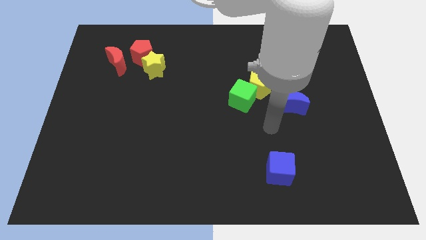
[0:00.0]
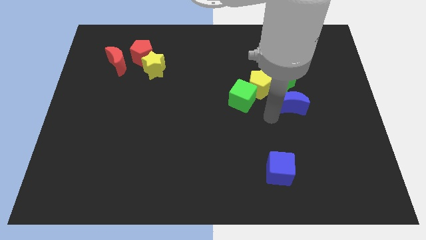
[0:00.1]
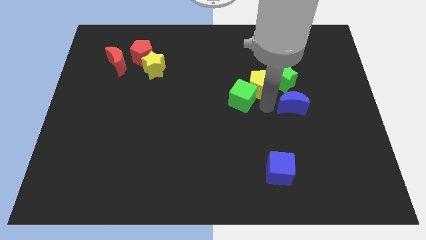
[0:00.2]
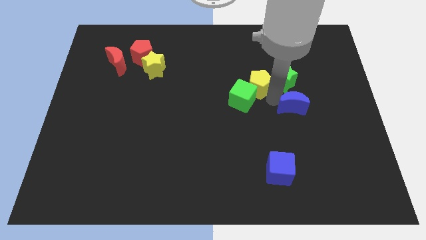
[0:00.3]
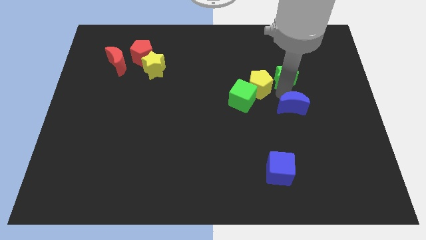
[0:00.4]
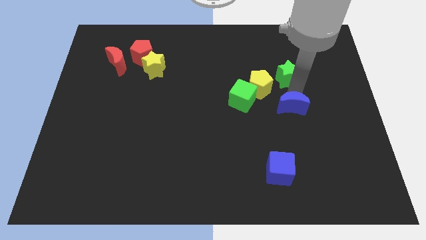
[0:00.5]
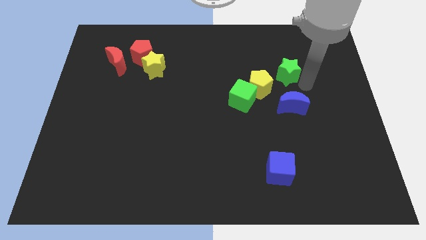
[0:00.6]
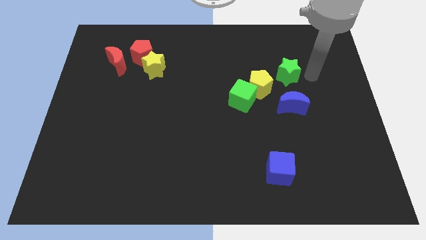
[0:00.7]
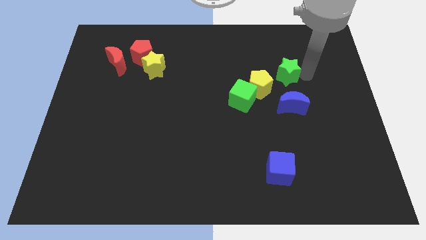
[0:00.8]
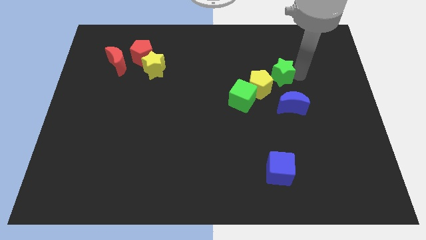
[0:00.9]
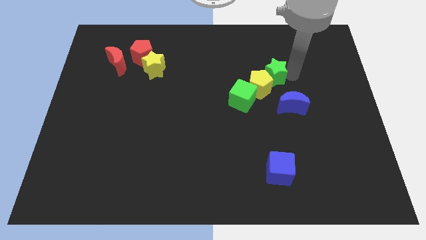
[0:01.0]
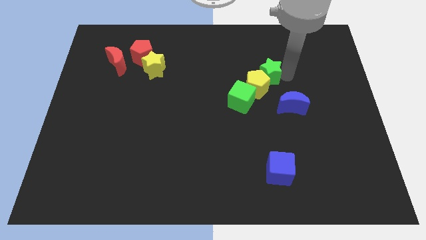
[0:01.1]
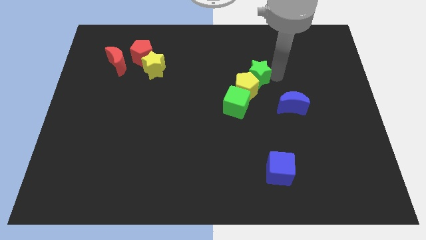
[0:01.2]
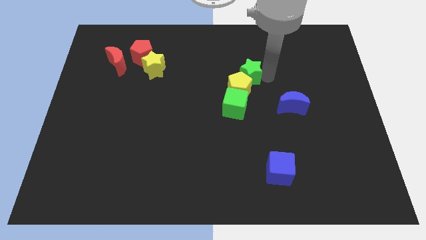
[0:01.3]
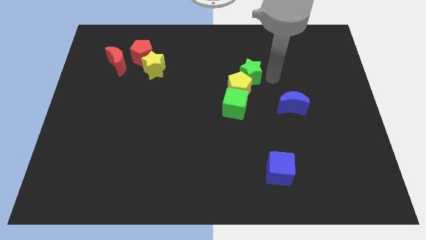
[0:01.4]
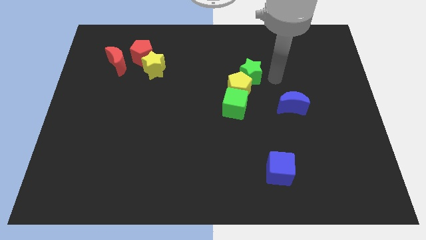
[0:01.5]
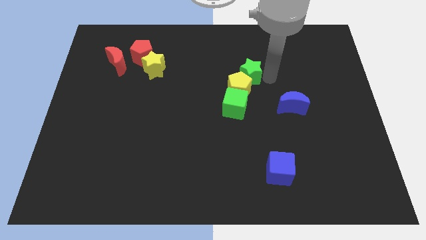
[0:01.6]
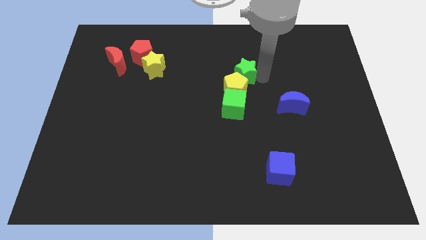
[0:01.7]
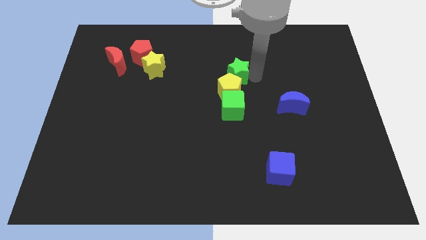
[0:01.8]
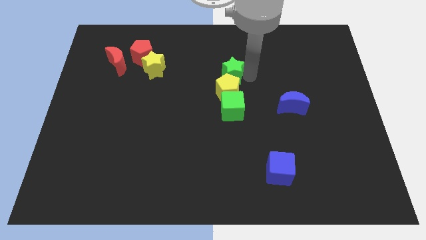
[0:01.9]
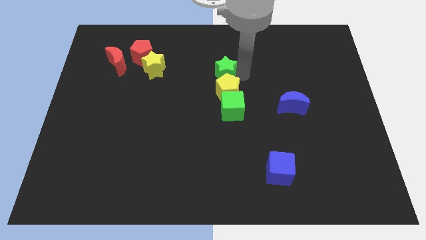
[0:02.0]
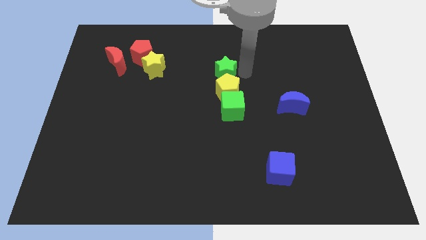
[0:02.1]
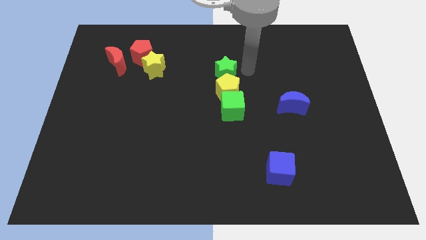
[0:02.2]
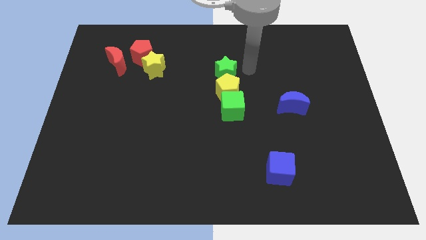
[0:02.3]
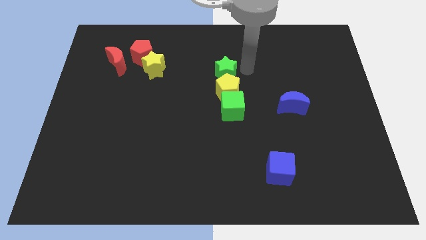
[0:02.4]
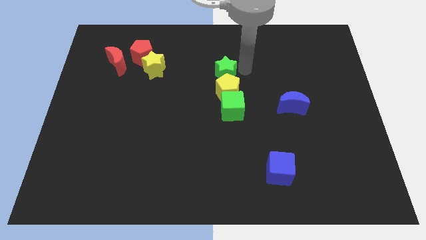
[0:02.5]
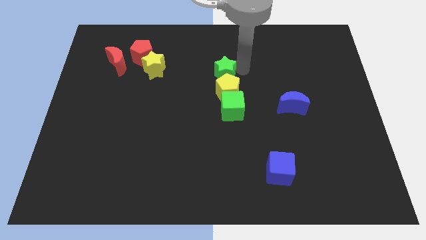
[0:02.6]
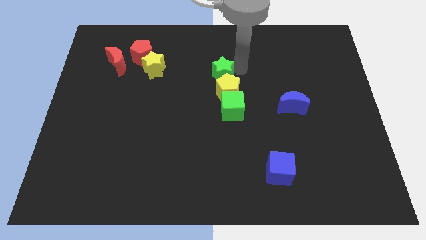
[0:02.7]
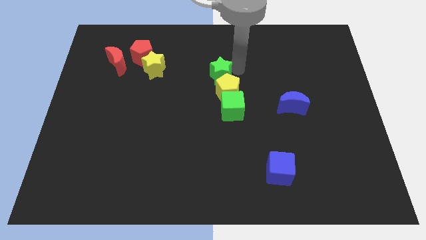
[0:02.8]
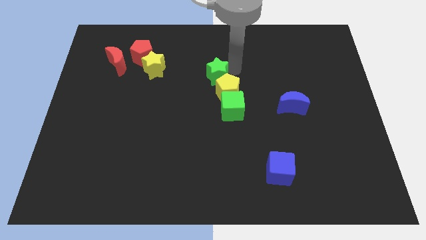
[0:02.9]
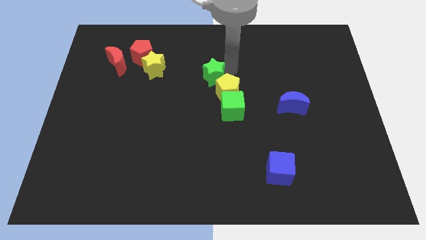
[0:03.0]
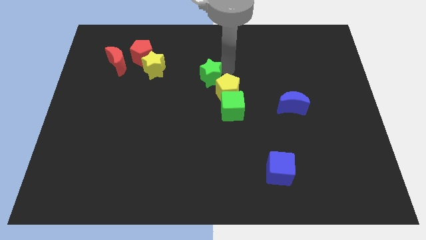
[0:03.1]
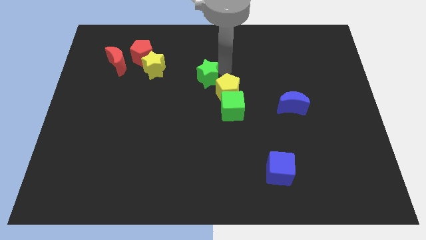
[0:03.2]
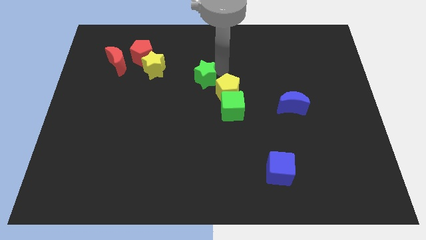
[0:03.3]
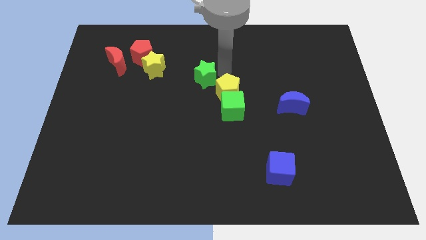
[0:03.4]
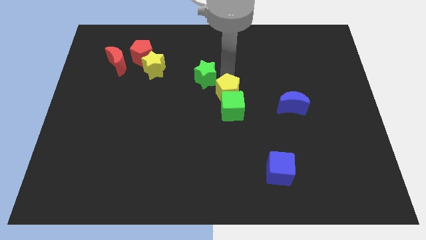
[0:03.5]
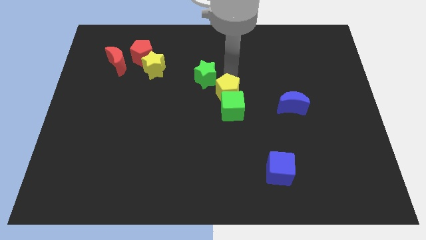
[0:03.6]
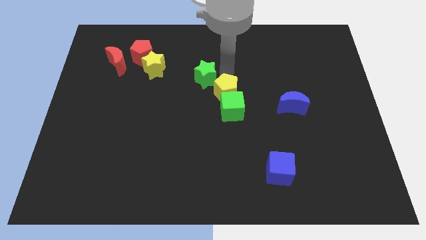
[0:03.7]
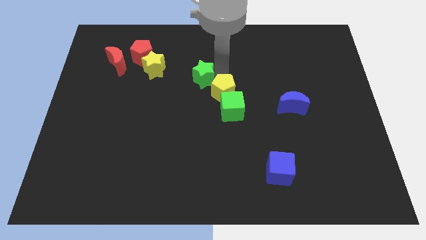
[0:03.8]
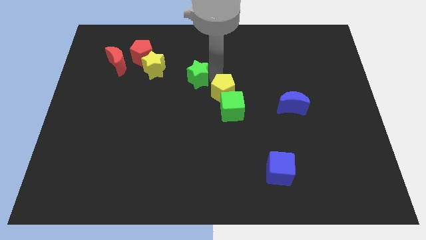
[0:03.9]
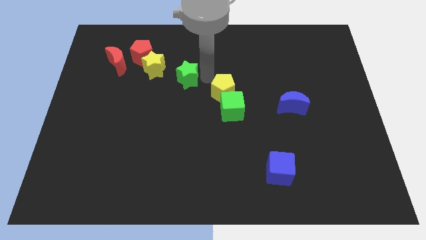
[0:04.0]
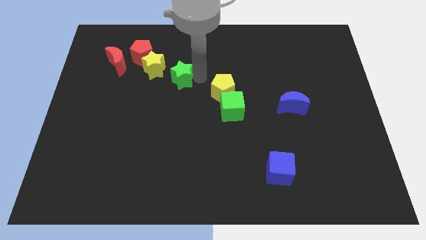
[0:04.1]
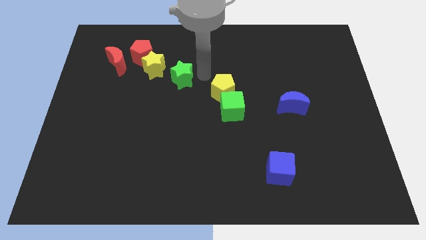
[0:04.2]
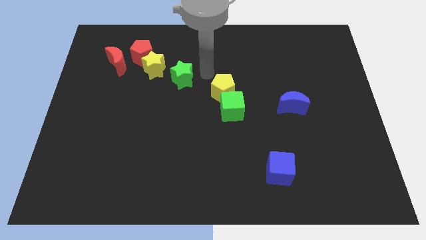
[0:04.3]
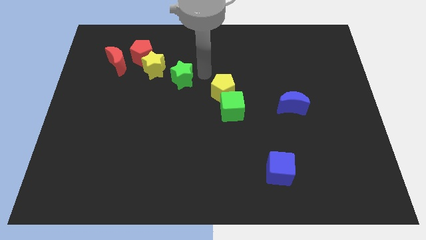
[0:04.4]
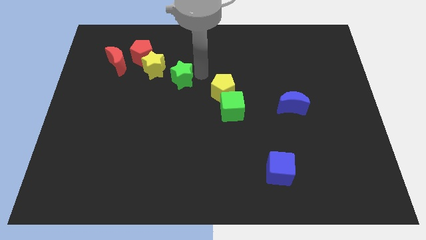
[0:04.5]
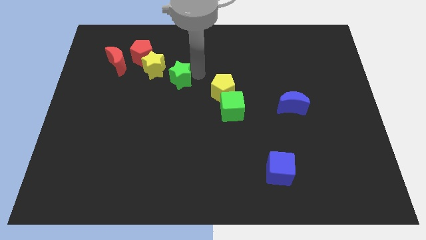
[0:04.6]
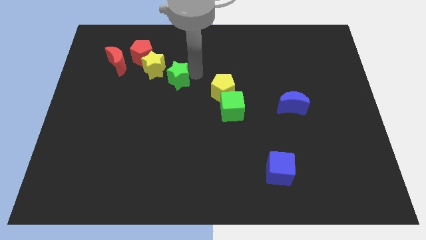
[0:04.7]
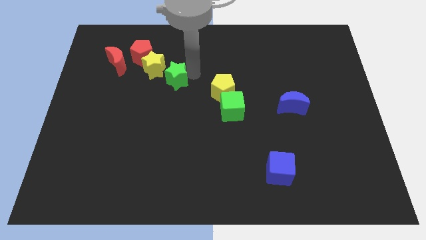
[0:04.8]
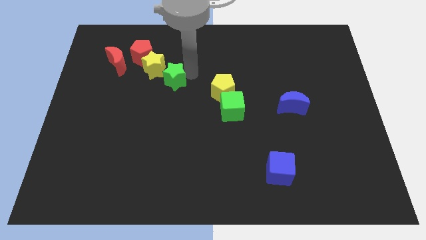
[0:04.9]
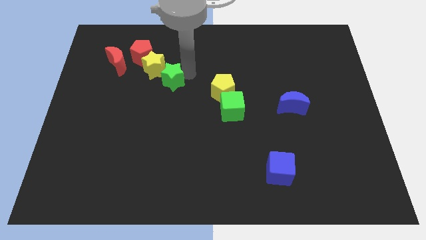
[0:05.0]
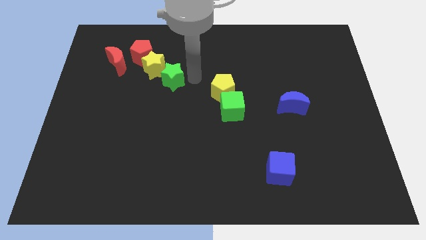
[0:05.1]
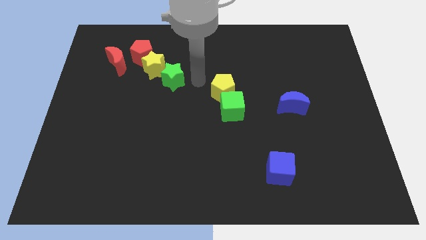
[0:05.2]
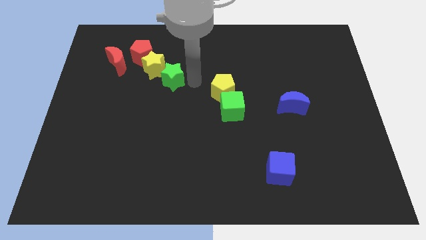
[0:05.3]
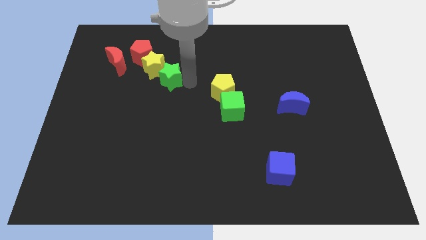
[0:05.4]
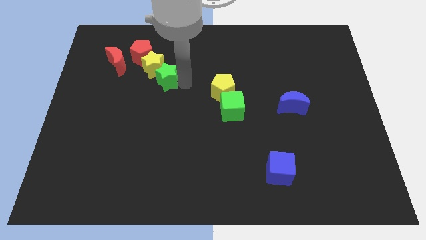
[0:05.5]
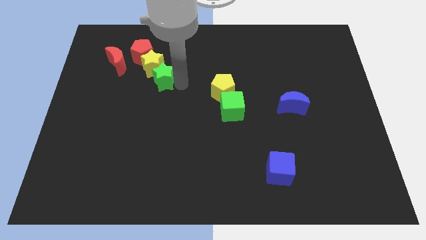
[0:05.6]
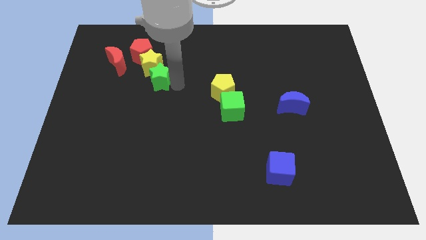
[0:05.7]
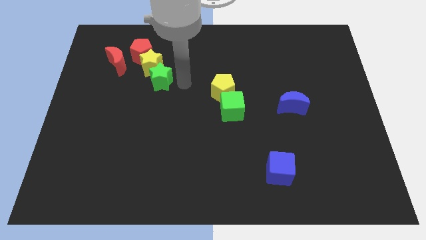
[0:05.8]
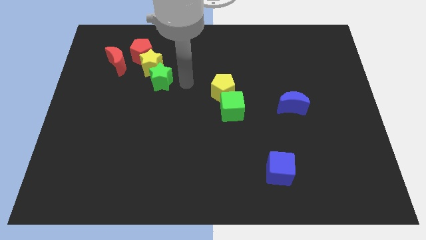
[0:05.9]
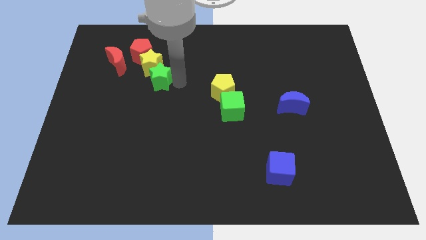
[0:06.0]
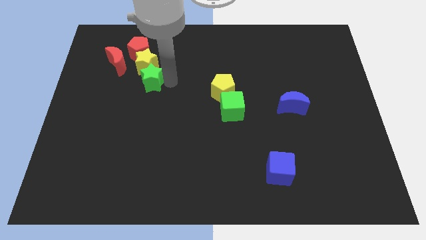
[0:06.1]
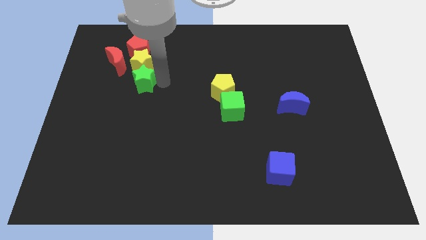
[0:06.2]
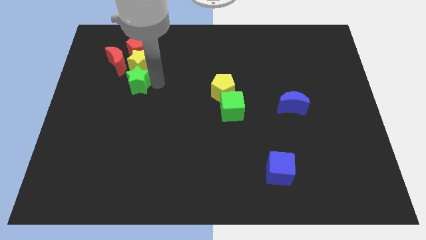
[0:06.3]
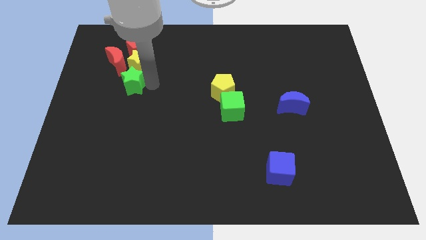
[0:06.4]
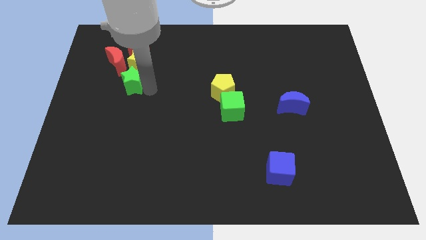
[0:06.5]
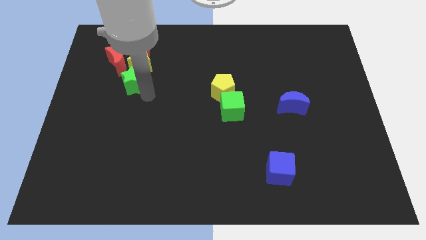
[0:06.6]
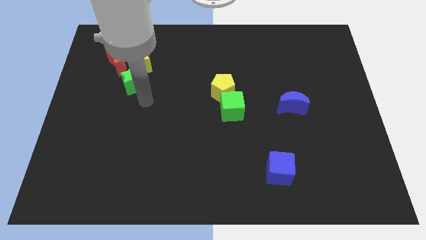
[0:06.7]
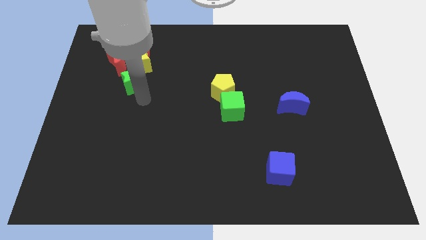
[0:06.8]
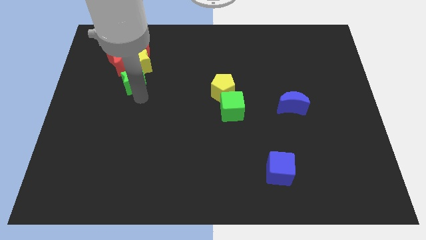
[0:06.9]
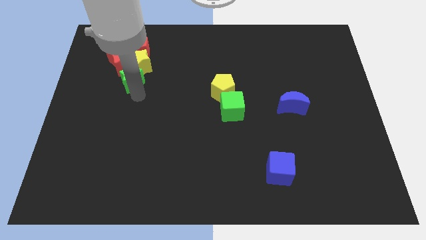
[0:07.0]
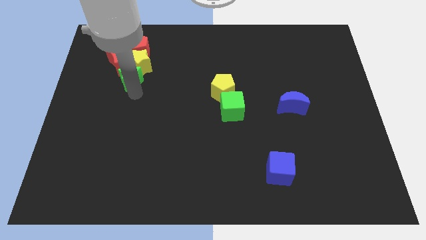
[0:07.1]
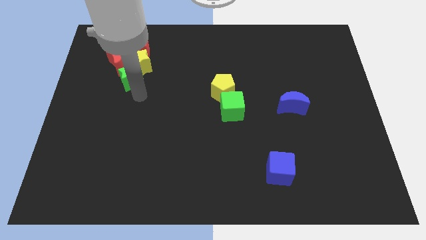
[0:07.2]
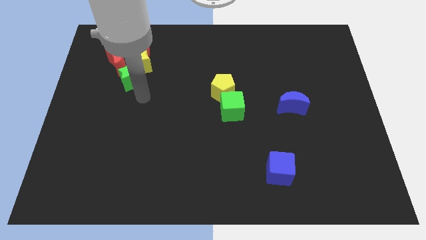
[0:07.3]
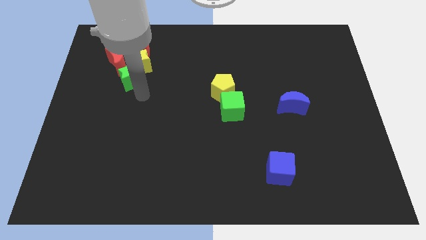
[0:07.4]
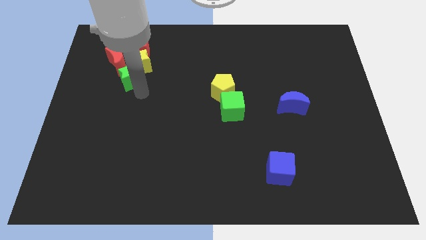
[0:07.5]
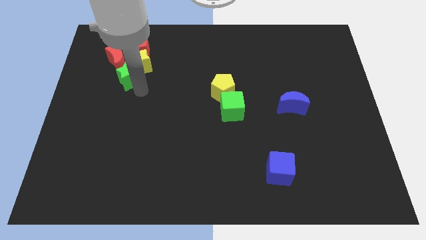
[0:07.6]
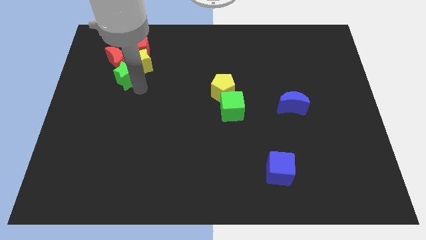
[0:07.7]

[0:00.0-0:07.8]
put the green star close to the red moon
